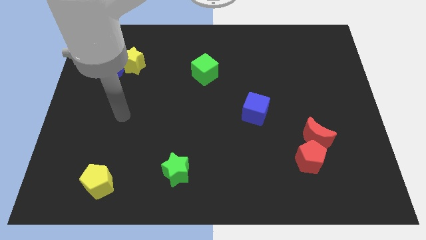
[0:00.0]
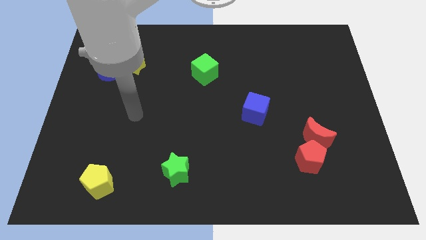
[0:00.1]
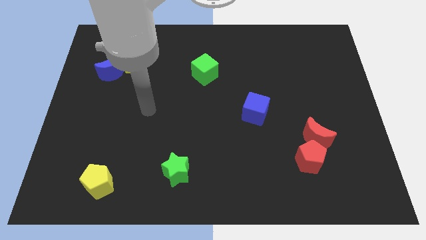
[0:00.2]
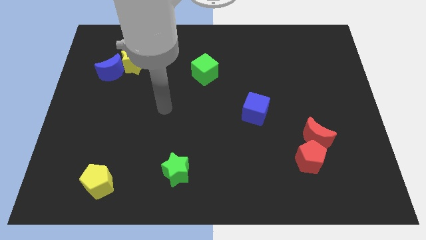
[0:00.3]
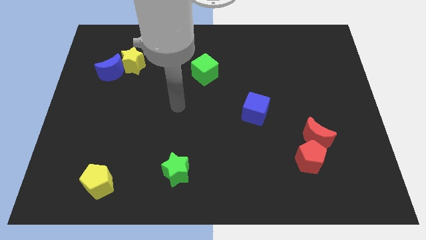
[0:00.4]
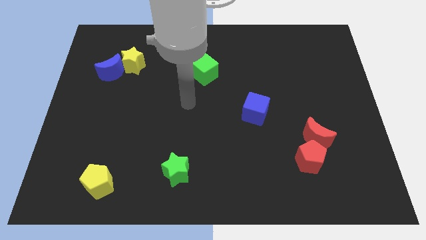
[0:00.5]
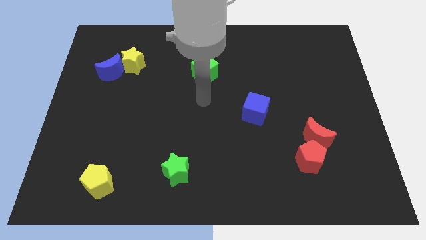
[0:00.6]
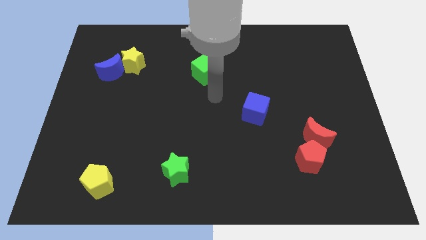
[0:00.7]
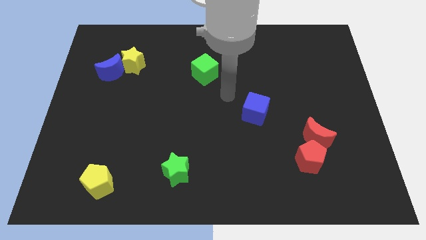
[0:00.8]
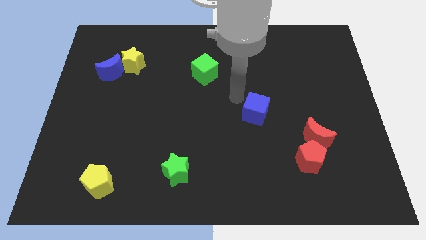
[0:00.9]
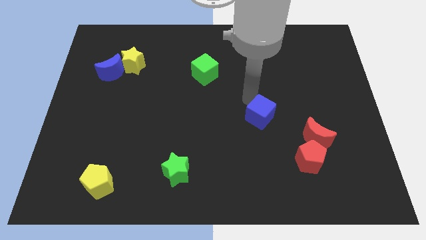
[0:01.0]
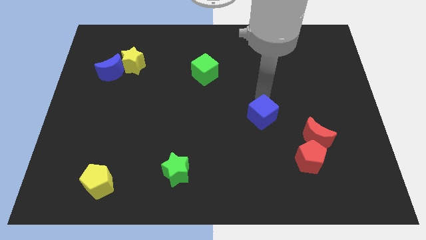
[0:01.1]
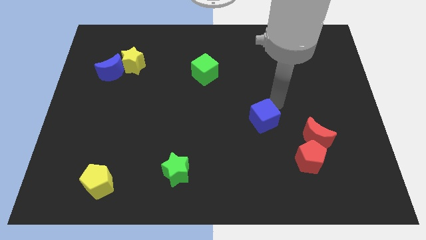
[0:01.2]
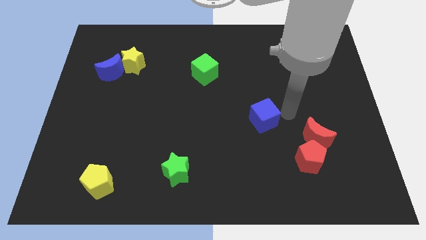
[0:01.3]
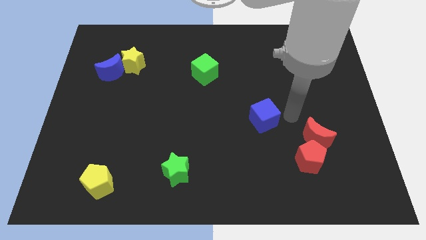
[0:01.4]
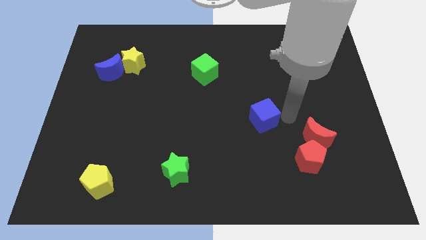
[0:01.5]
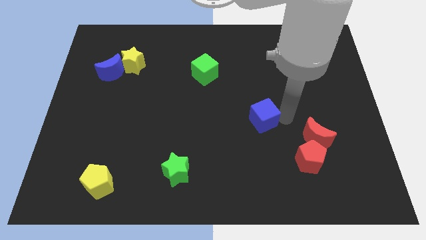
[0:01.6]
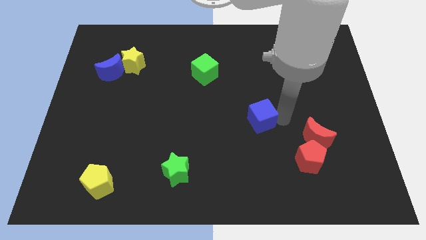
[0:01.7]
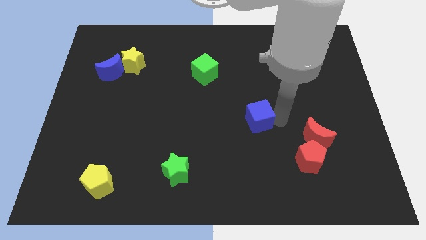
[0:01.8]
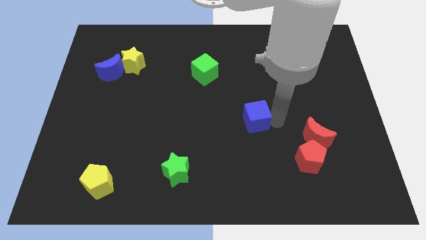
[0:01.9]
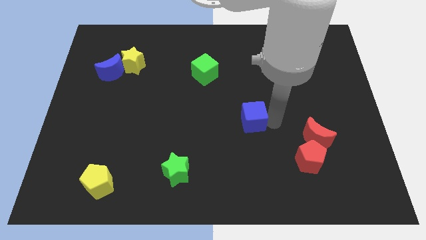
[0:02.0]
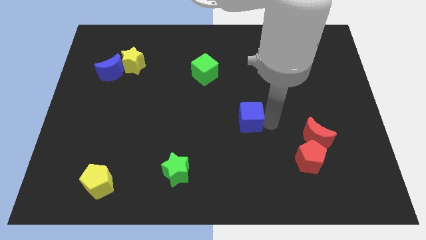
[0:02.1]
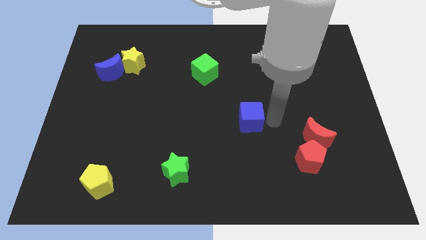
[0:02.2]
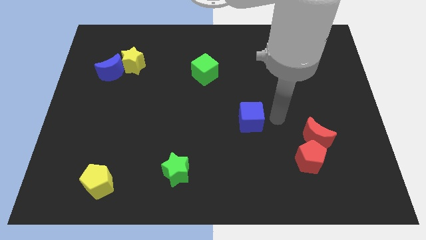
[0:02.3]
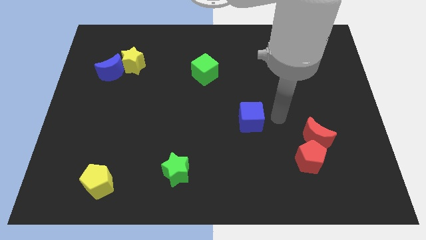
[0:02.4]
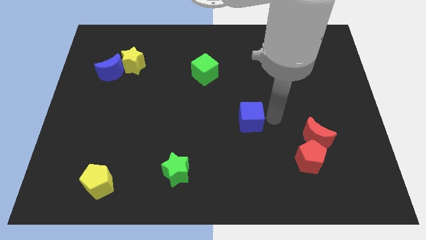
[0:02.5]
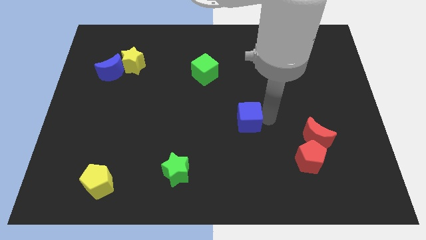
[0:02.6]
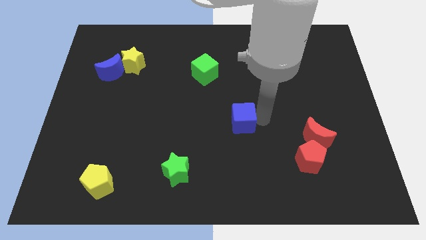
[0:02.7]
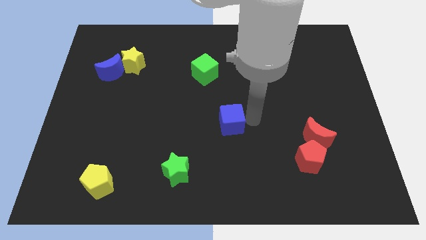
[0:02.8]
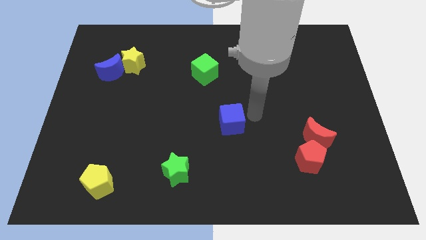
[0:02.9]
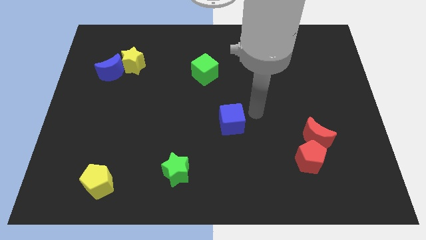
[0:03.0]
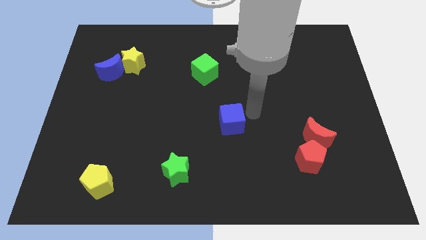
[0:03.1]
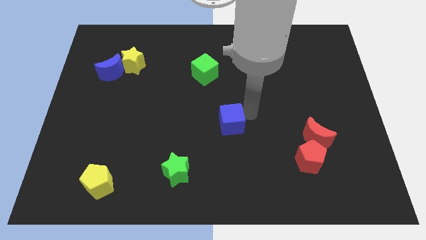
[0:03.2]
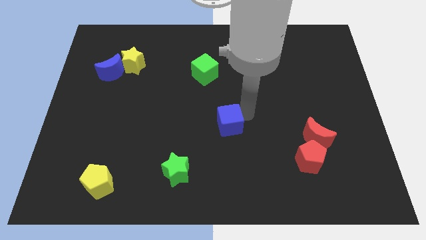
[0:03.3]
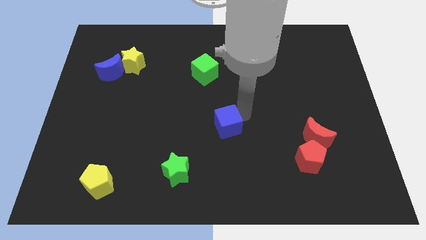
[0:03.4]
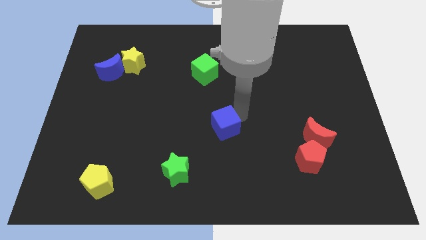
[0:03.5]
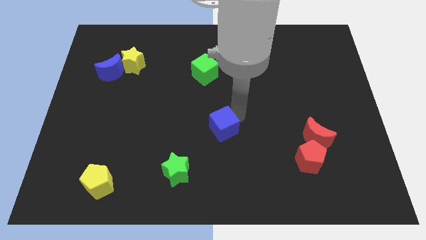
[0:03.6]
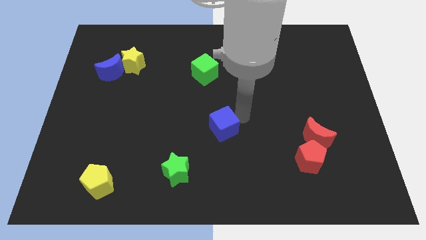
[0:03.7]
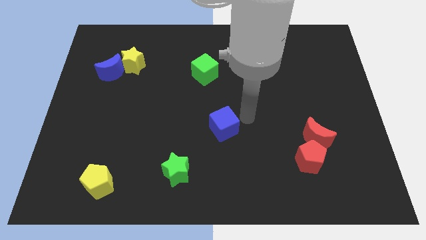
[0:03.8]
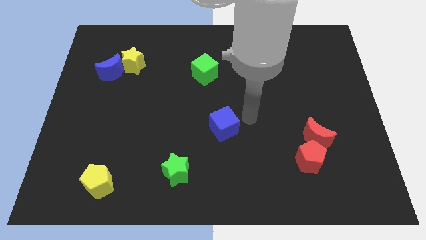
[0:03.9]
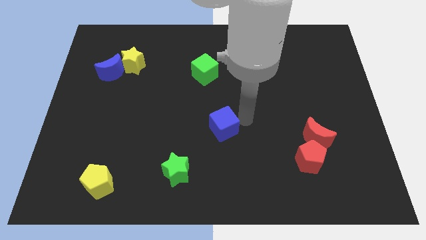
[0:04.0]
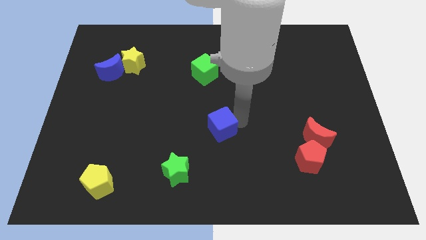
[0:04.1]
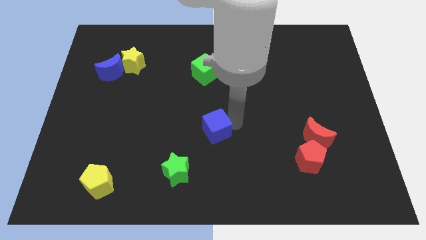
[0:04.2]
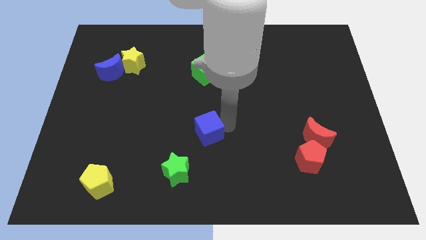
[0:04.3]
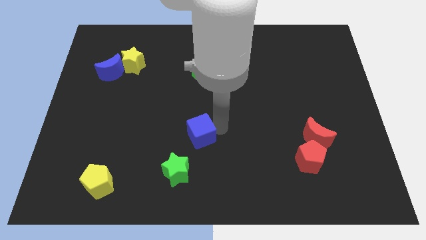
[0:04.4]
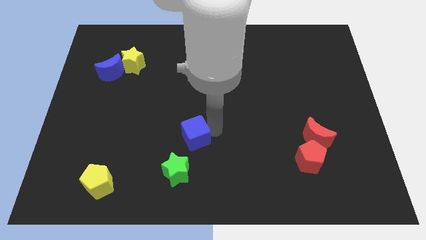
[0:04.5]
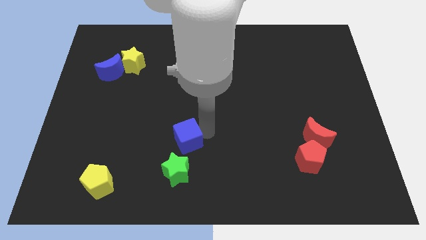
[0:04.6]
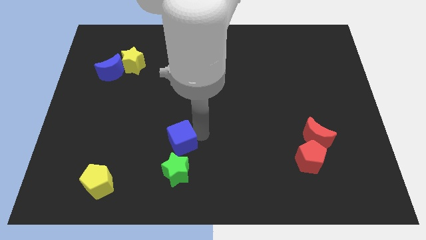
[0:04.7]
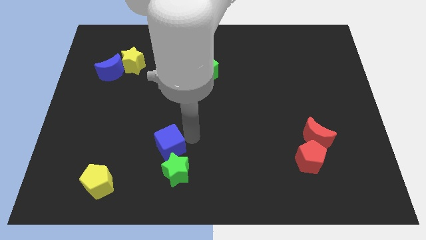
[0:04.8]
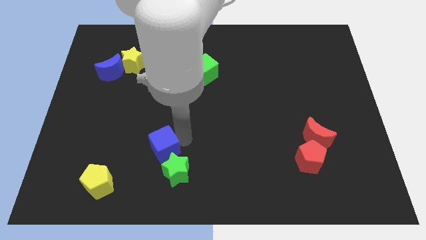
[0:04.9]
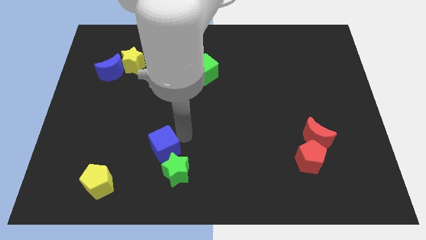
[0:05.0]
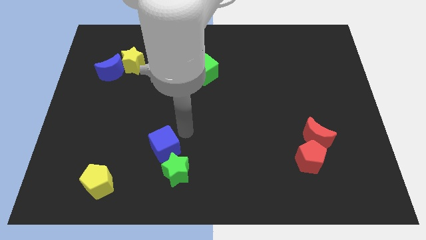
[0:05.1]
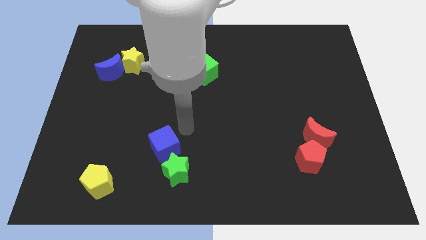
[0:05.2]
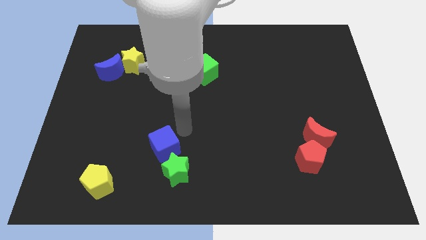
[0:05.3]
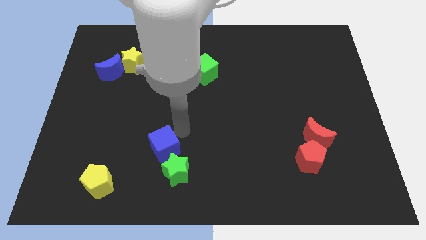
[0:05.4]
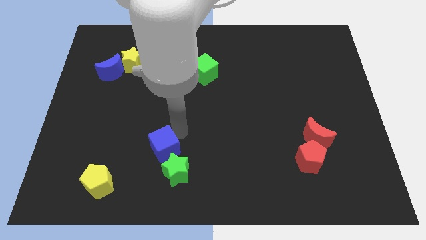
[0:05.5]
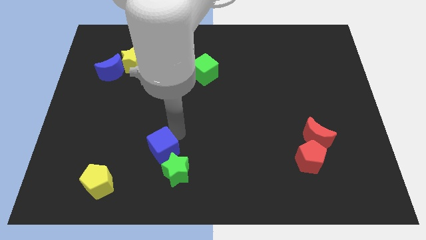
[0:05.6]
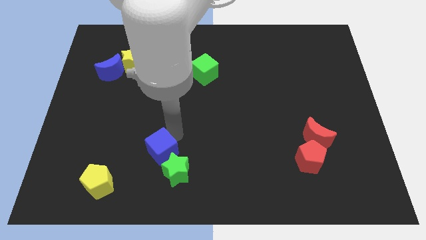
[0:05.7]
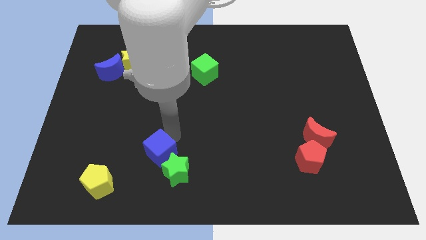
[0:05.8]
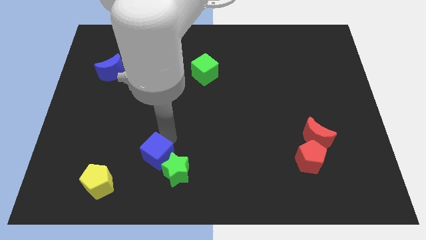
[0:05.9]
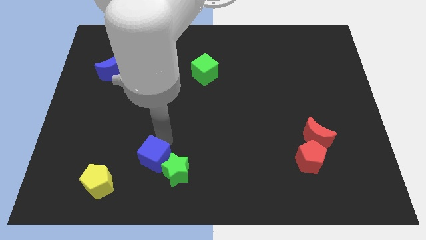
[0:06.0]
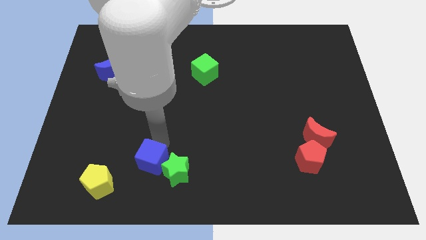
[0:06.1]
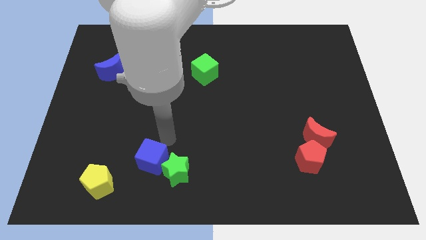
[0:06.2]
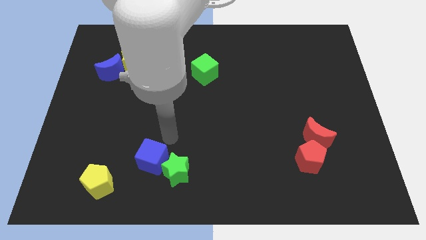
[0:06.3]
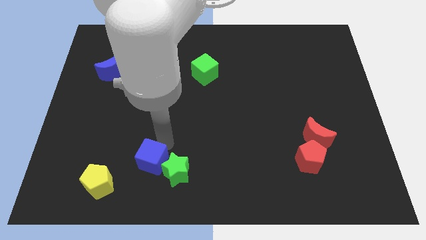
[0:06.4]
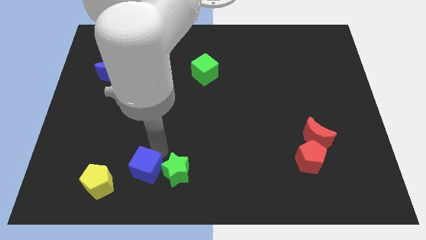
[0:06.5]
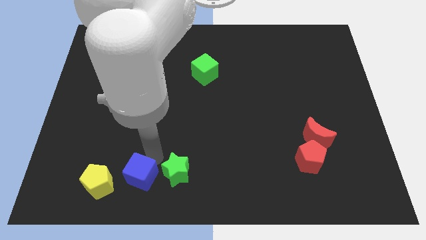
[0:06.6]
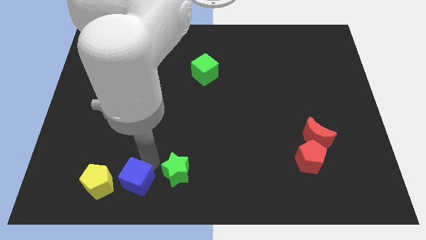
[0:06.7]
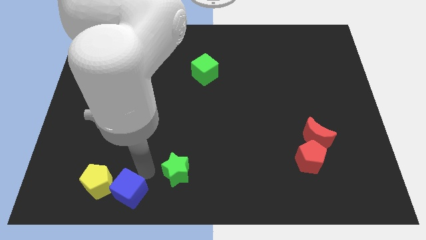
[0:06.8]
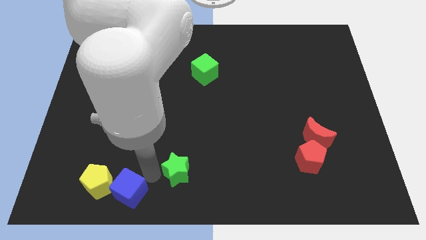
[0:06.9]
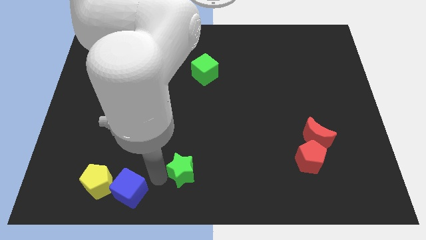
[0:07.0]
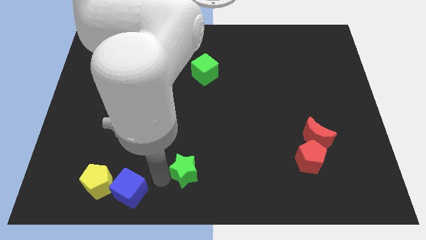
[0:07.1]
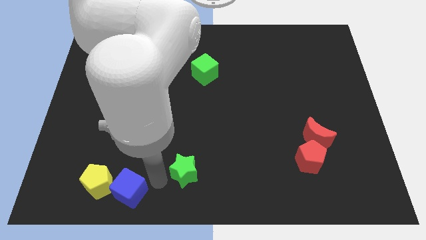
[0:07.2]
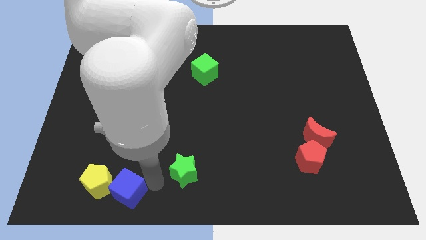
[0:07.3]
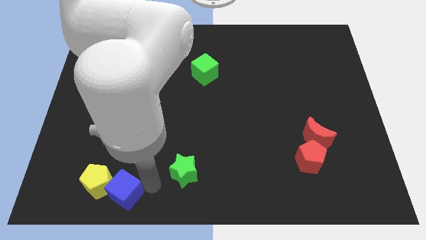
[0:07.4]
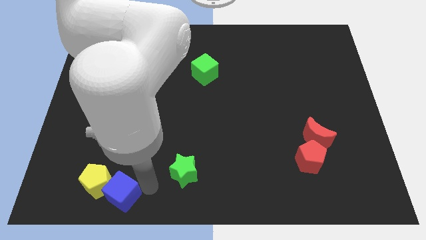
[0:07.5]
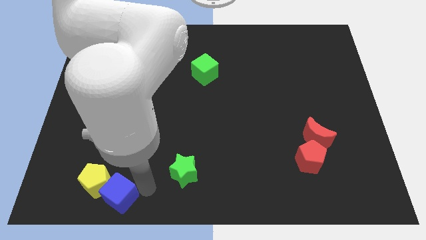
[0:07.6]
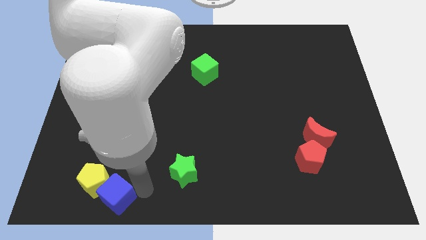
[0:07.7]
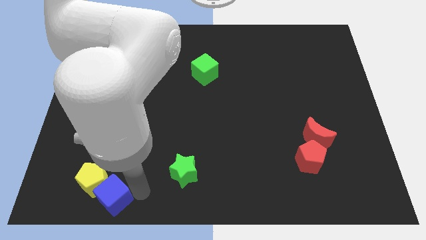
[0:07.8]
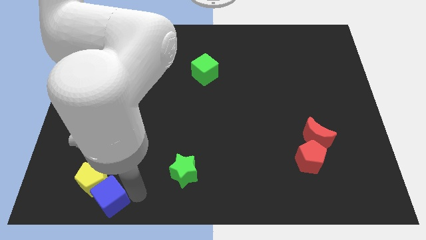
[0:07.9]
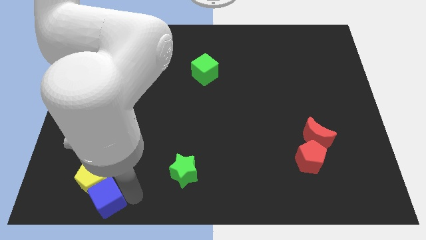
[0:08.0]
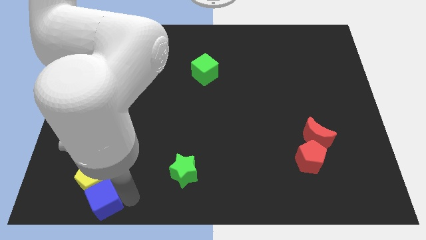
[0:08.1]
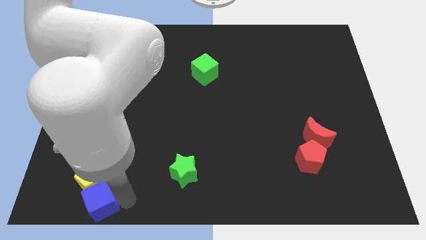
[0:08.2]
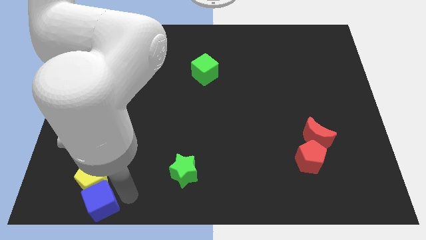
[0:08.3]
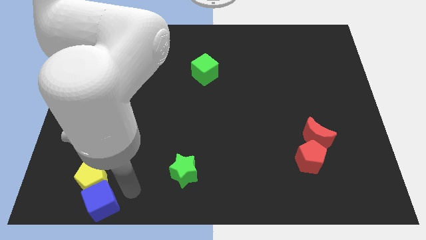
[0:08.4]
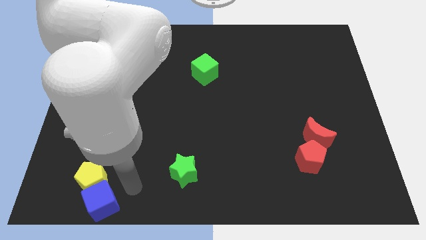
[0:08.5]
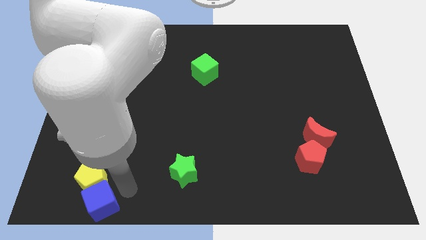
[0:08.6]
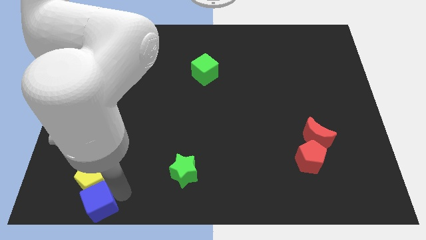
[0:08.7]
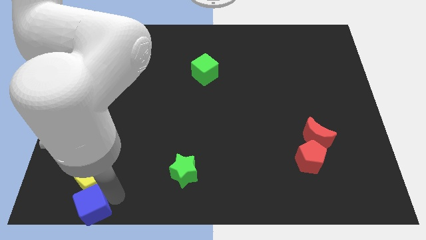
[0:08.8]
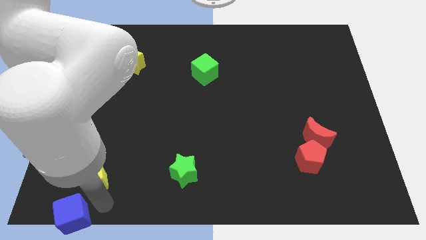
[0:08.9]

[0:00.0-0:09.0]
push the blue cube to the bottom left of the board
